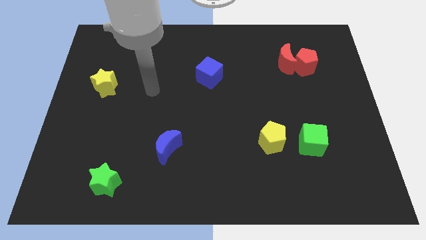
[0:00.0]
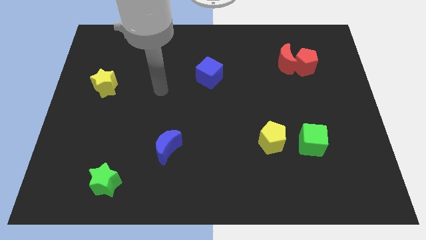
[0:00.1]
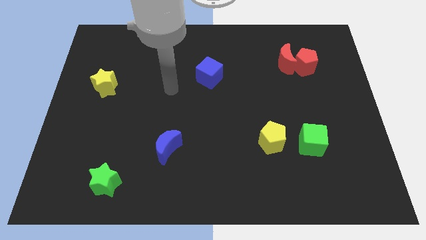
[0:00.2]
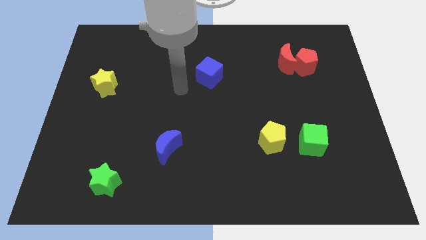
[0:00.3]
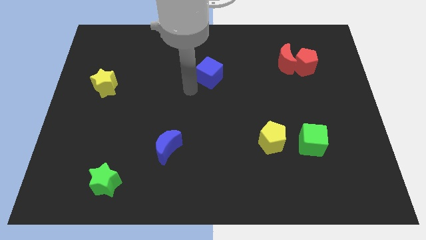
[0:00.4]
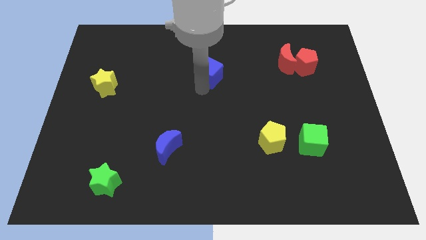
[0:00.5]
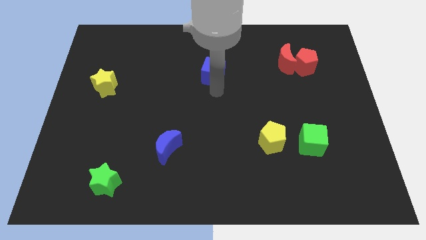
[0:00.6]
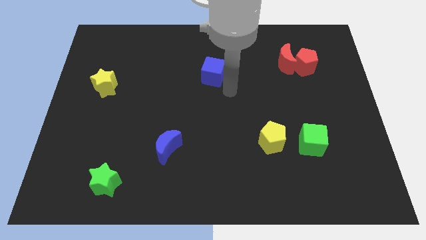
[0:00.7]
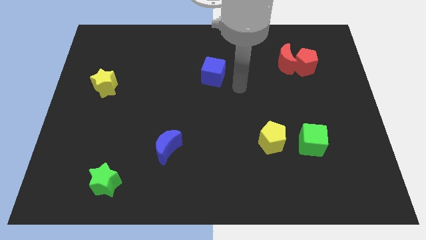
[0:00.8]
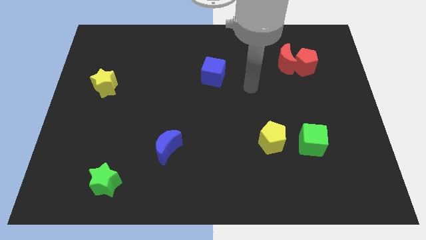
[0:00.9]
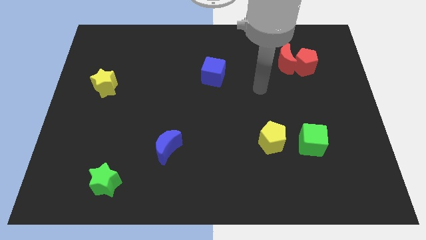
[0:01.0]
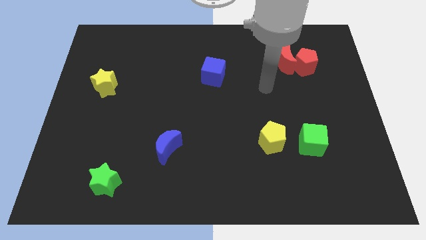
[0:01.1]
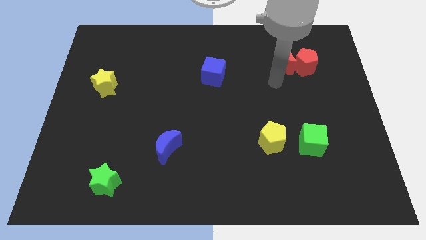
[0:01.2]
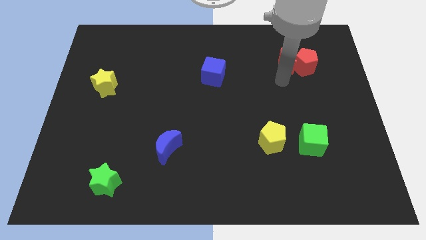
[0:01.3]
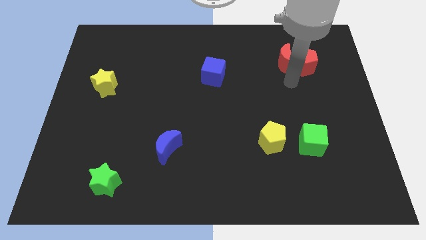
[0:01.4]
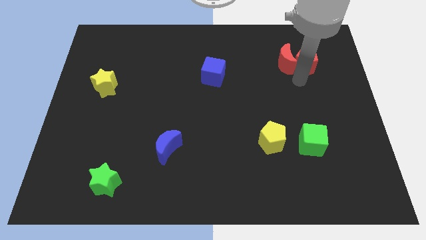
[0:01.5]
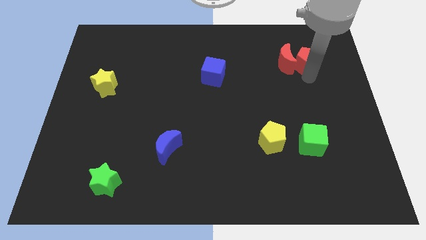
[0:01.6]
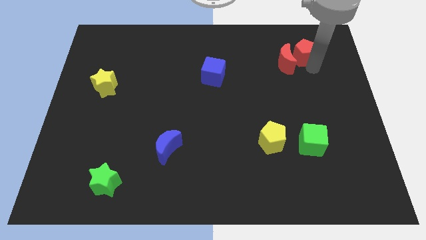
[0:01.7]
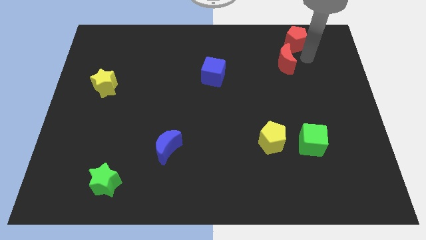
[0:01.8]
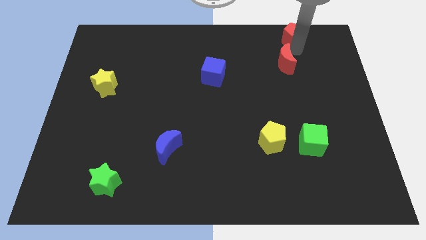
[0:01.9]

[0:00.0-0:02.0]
pull the red moon apart from the red pentagon

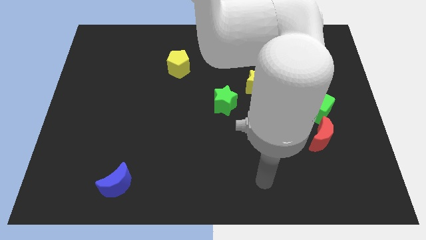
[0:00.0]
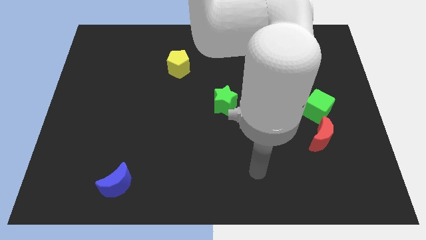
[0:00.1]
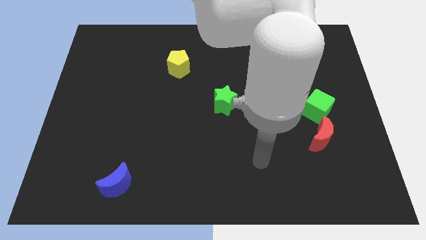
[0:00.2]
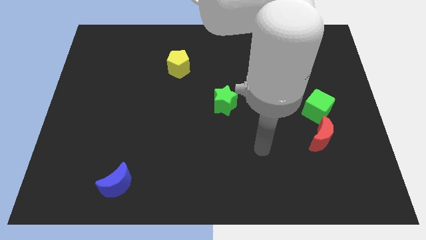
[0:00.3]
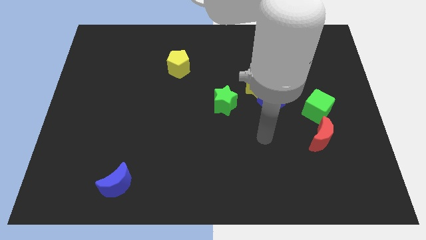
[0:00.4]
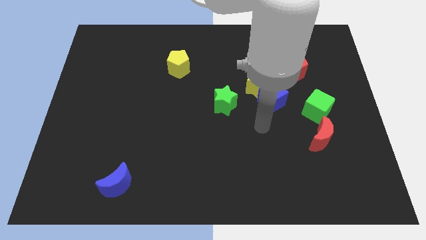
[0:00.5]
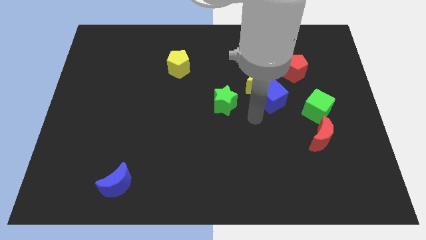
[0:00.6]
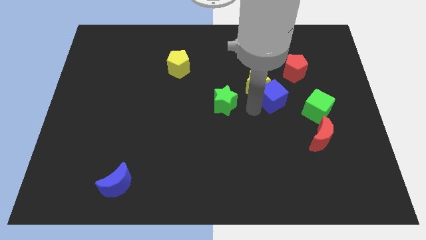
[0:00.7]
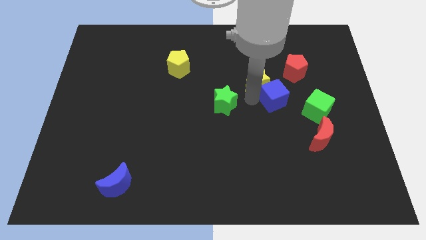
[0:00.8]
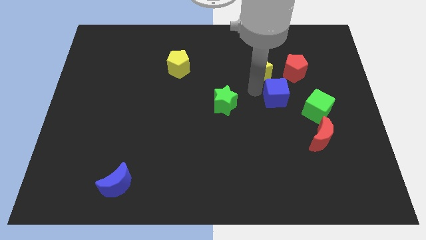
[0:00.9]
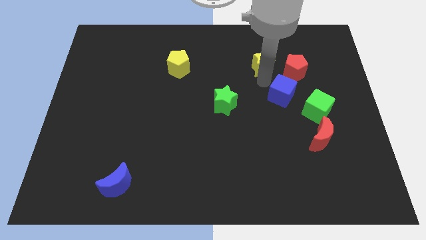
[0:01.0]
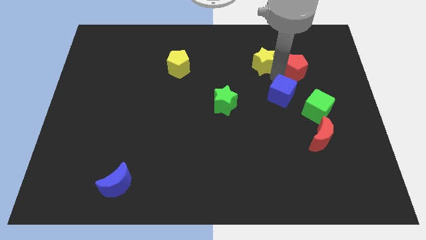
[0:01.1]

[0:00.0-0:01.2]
move the blue cube away from the yellow star

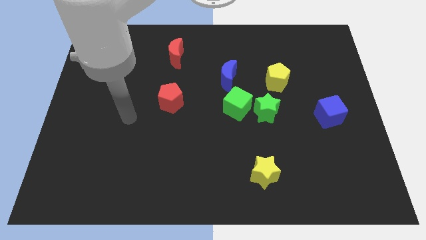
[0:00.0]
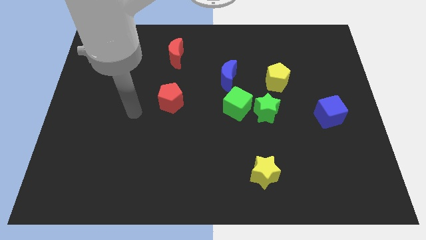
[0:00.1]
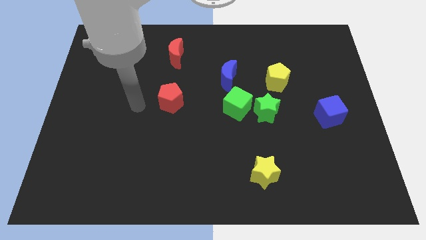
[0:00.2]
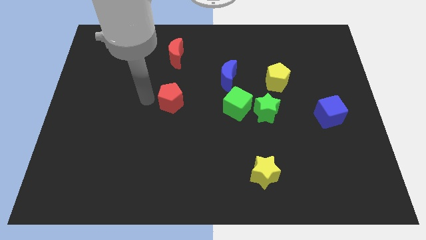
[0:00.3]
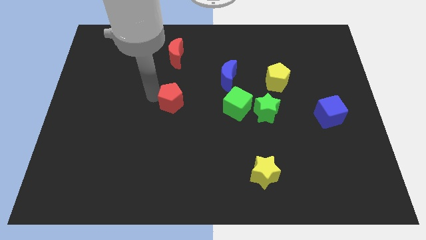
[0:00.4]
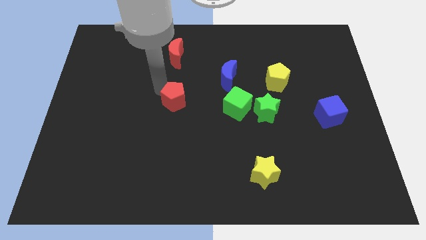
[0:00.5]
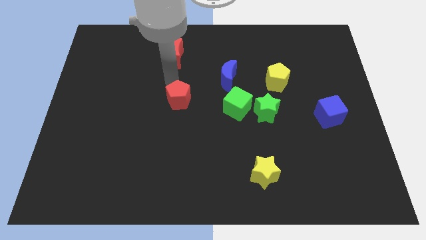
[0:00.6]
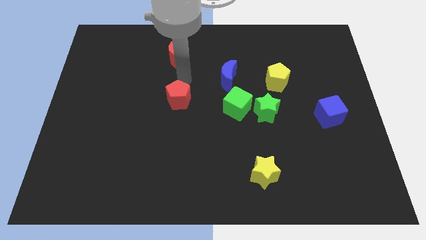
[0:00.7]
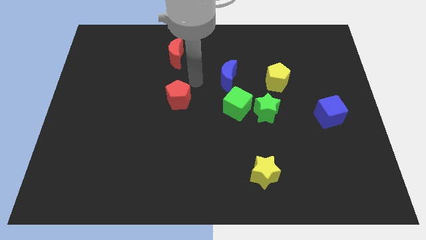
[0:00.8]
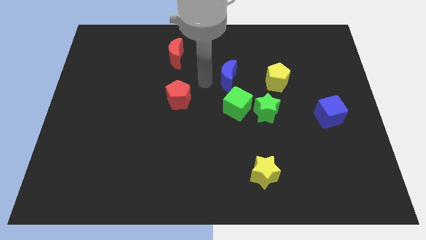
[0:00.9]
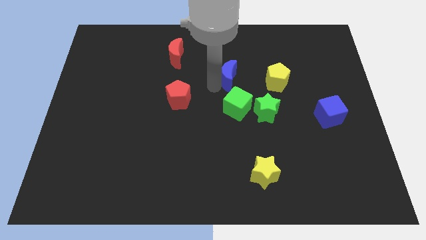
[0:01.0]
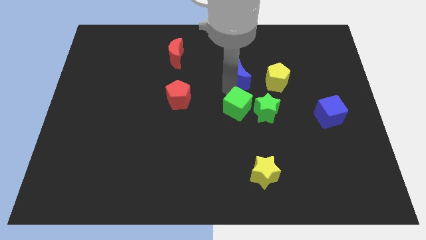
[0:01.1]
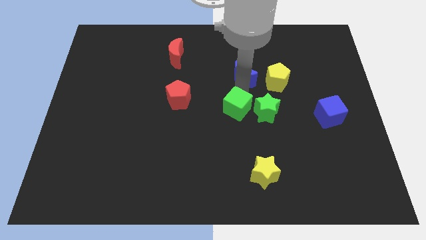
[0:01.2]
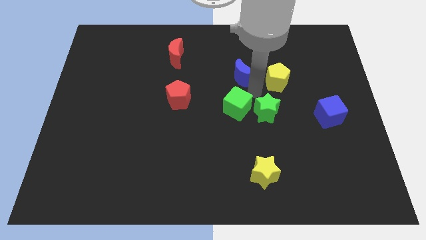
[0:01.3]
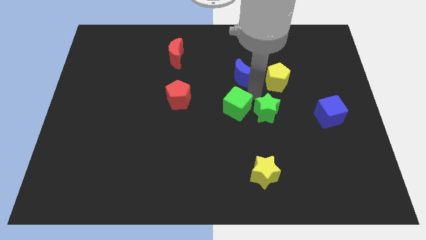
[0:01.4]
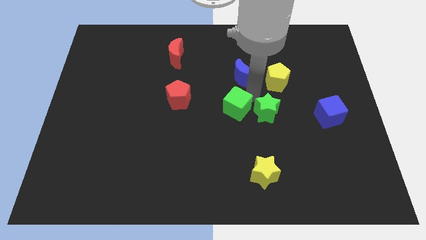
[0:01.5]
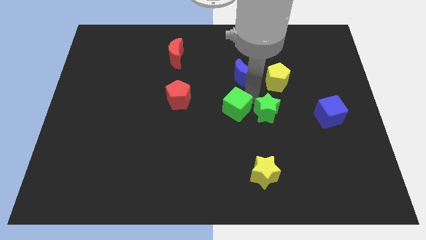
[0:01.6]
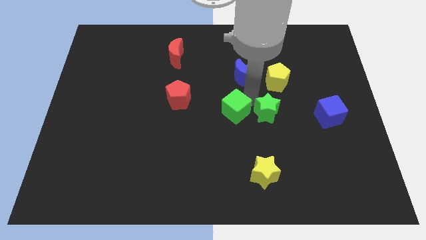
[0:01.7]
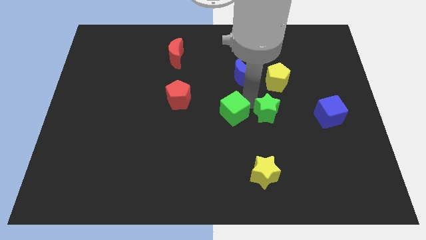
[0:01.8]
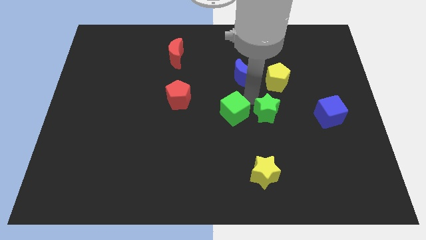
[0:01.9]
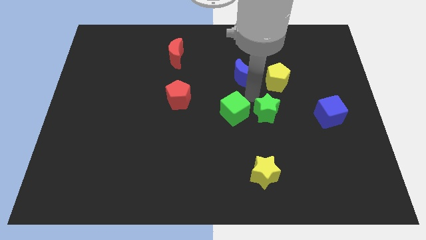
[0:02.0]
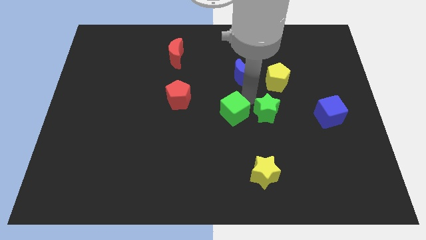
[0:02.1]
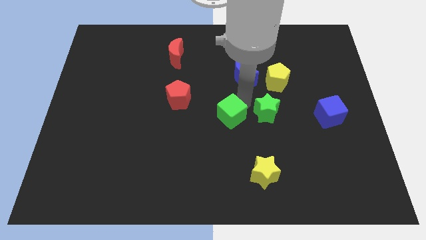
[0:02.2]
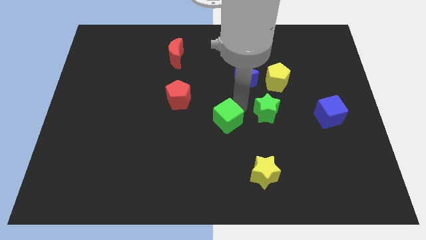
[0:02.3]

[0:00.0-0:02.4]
move the green cube away from the green star and blue moon

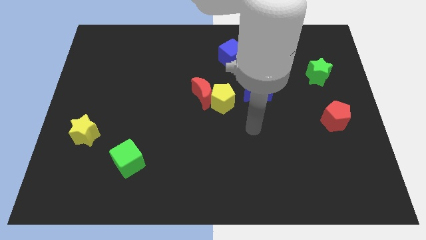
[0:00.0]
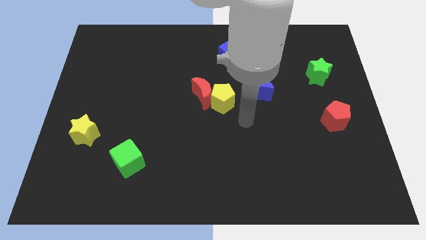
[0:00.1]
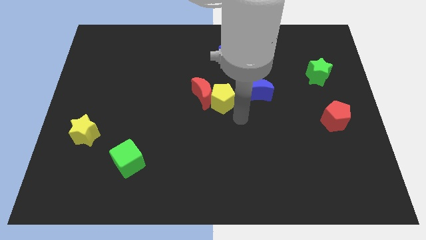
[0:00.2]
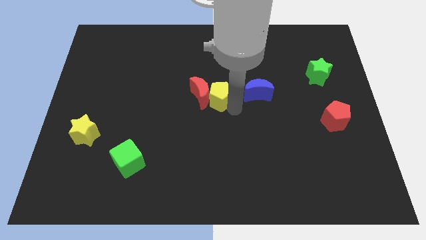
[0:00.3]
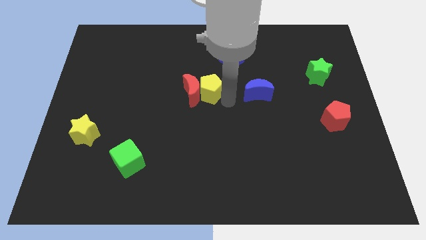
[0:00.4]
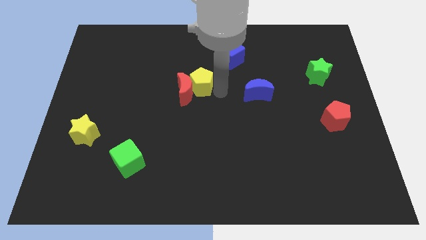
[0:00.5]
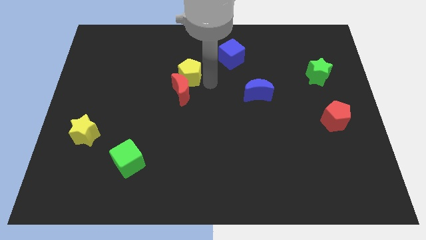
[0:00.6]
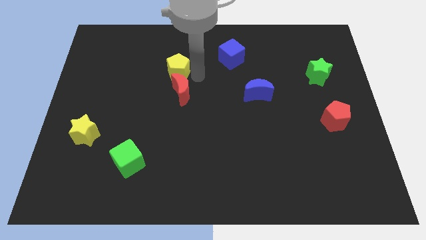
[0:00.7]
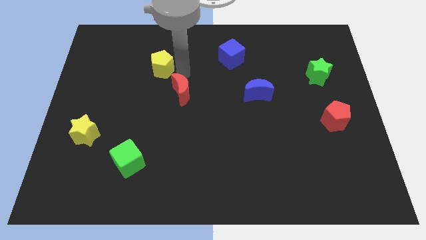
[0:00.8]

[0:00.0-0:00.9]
pull the red moon apart from the yellow pentagon

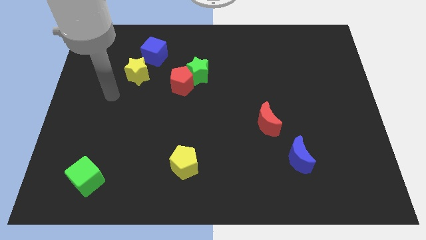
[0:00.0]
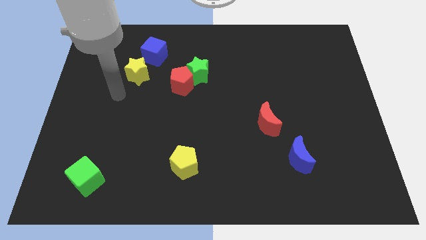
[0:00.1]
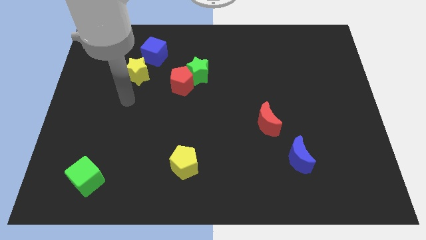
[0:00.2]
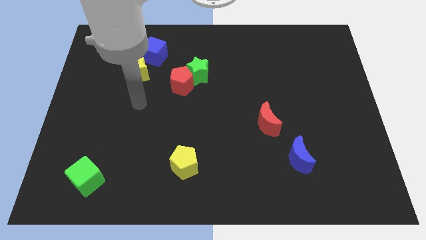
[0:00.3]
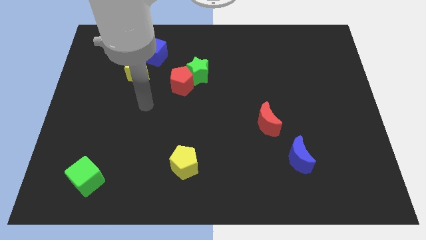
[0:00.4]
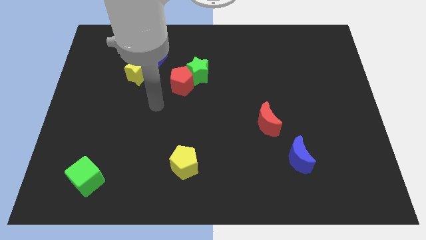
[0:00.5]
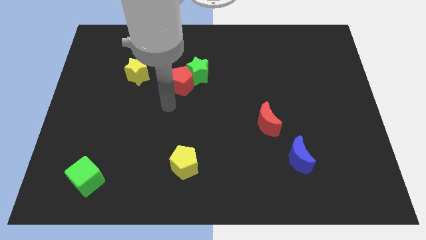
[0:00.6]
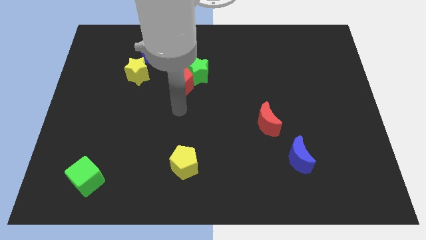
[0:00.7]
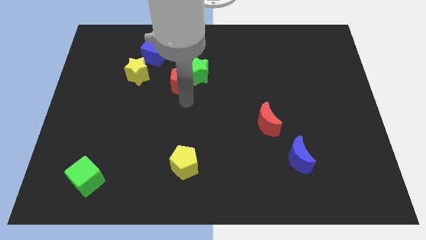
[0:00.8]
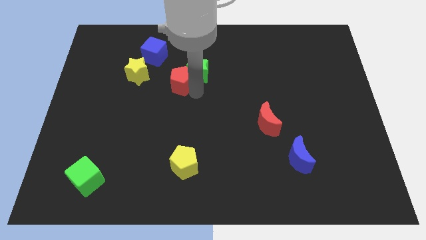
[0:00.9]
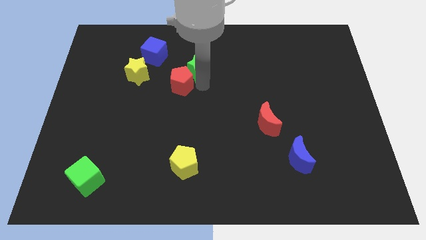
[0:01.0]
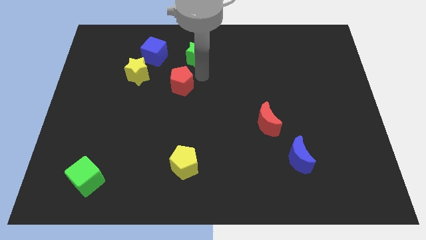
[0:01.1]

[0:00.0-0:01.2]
move the red pentagon away from the green star

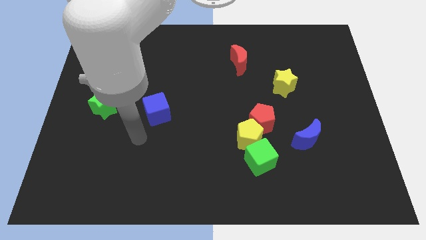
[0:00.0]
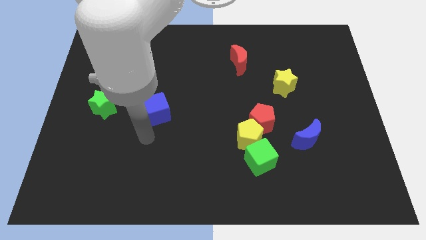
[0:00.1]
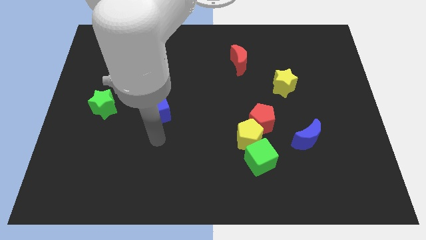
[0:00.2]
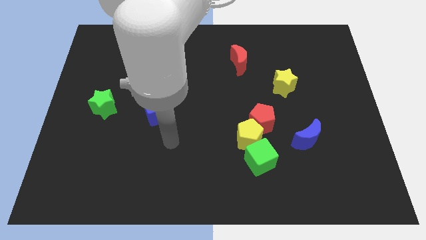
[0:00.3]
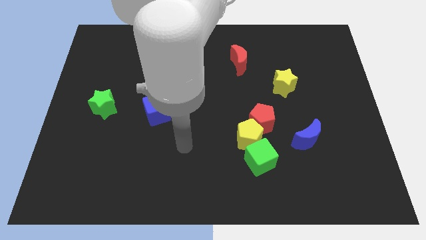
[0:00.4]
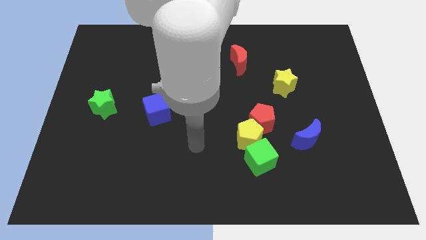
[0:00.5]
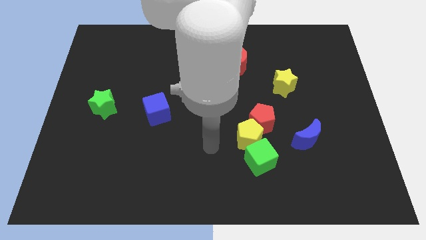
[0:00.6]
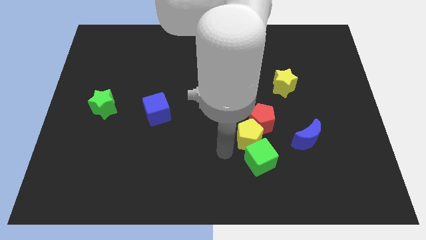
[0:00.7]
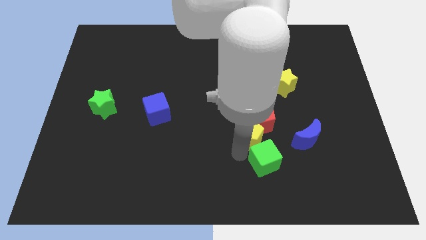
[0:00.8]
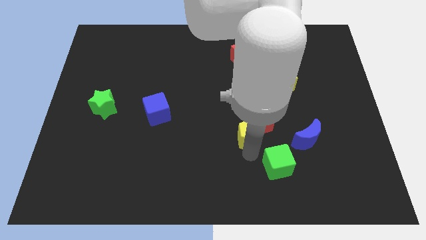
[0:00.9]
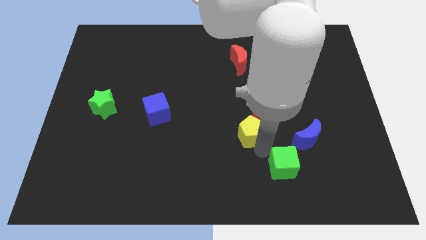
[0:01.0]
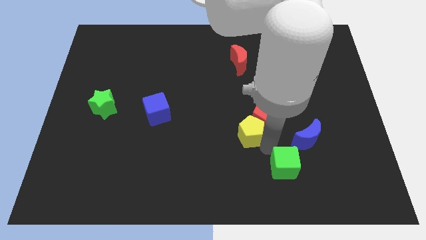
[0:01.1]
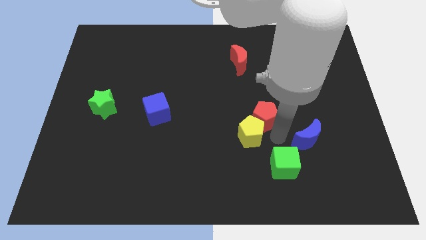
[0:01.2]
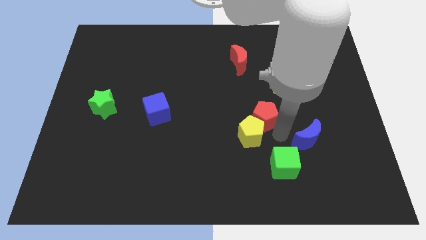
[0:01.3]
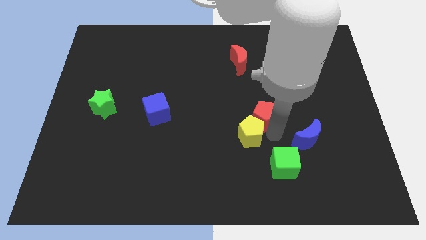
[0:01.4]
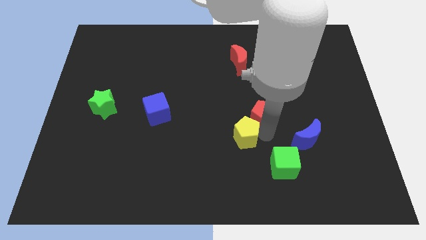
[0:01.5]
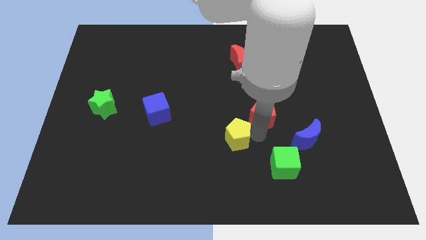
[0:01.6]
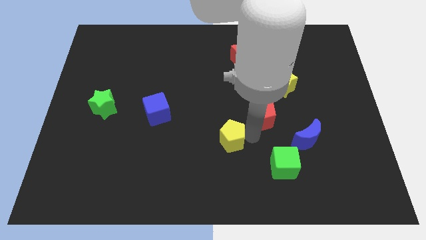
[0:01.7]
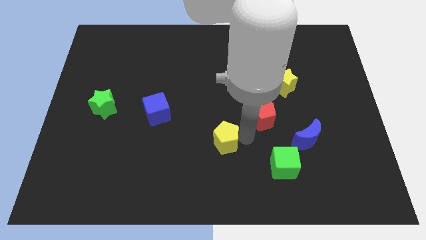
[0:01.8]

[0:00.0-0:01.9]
move the yellow pentagon away from the red pentagon and green cube
